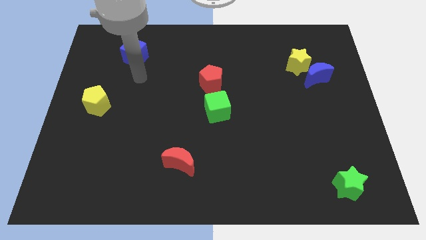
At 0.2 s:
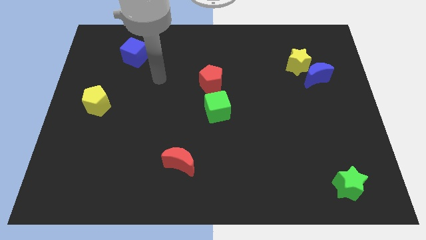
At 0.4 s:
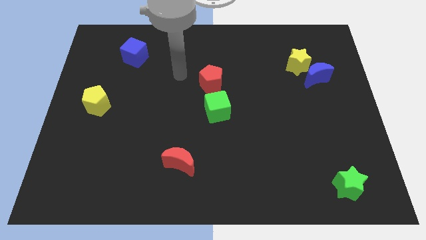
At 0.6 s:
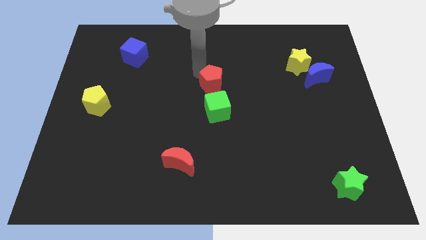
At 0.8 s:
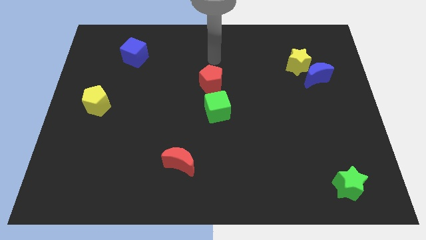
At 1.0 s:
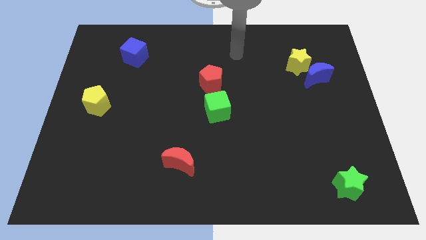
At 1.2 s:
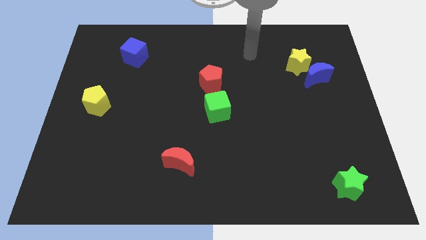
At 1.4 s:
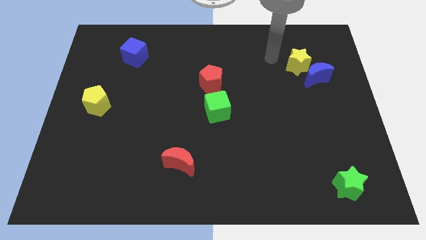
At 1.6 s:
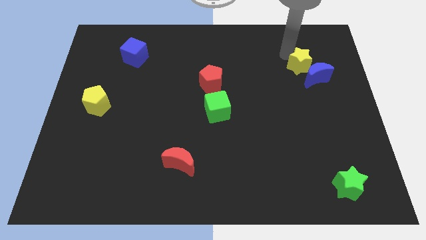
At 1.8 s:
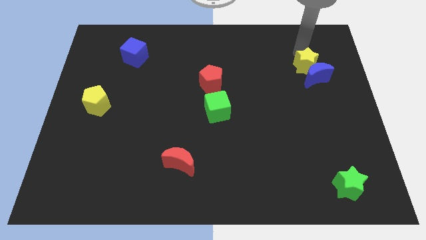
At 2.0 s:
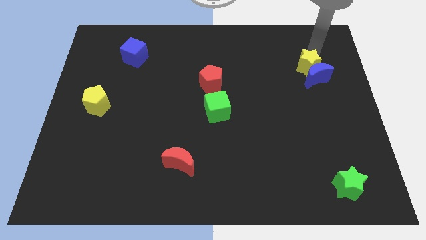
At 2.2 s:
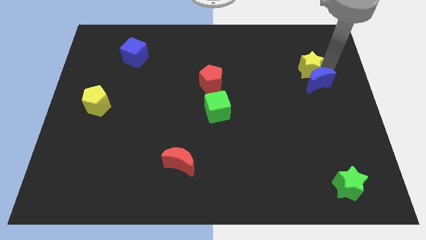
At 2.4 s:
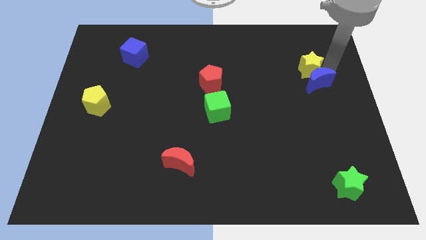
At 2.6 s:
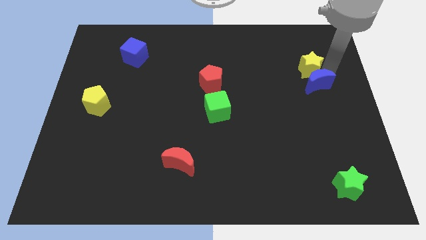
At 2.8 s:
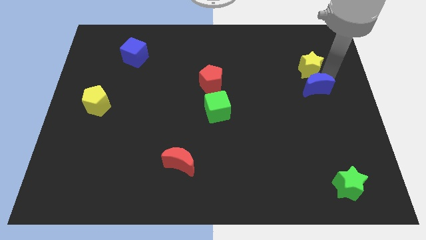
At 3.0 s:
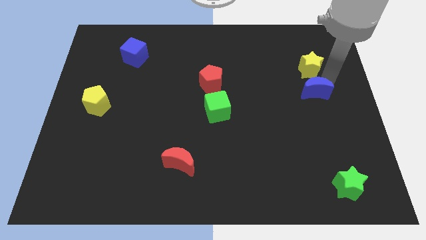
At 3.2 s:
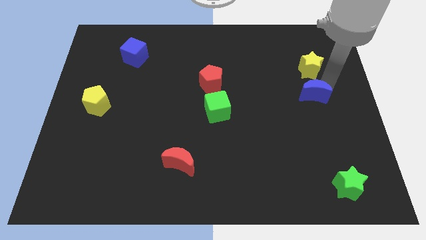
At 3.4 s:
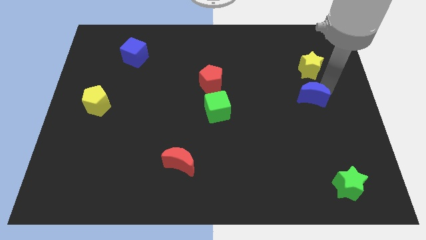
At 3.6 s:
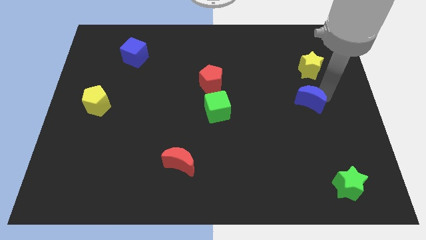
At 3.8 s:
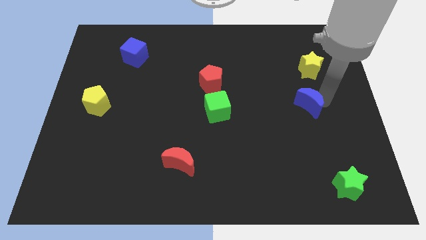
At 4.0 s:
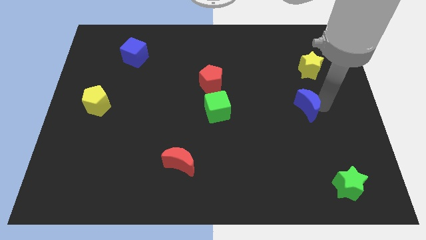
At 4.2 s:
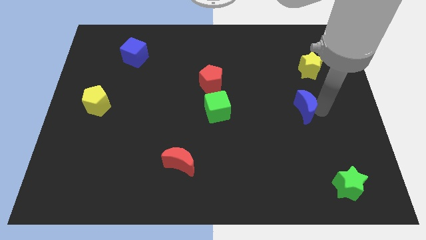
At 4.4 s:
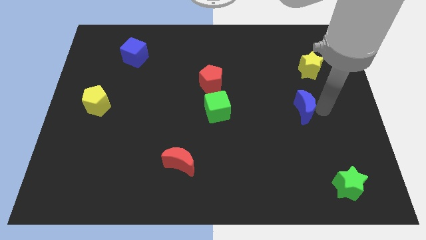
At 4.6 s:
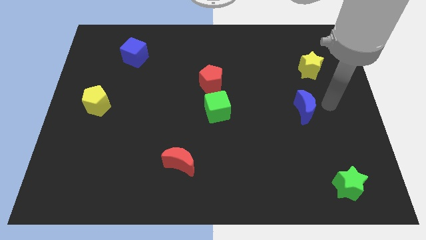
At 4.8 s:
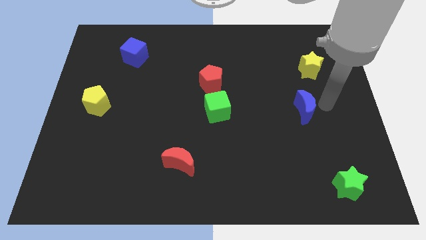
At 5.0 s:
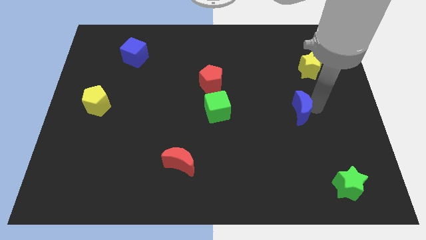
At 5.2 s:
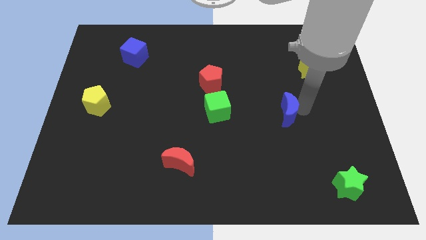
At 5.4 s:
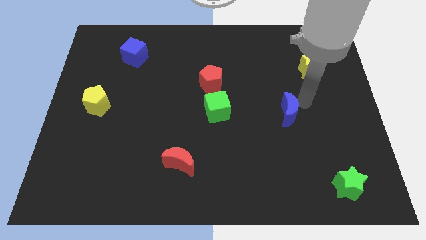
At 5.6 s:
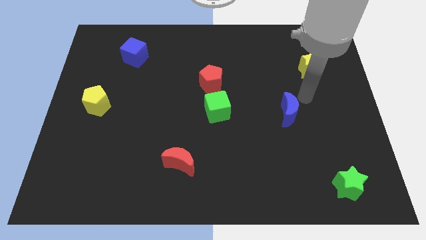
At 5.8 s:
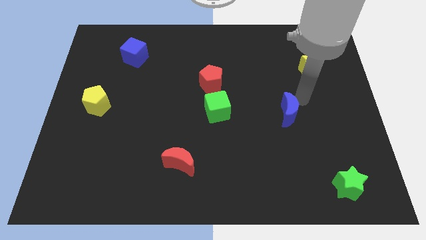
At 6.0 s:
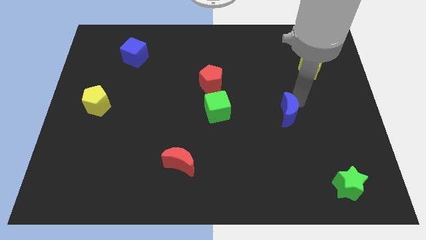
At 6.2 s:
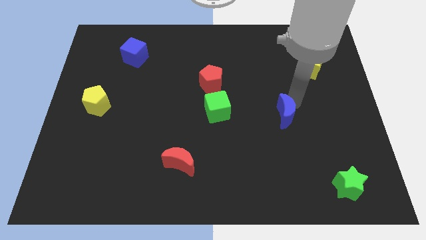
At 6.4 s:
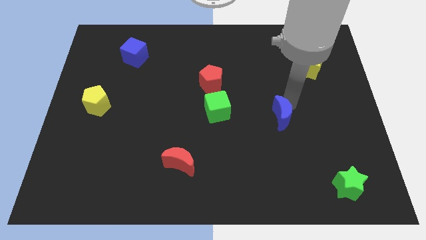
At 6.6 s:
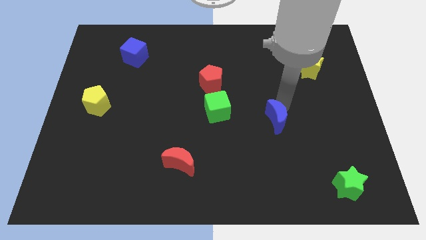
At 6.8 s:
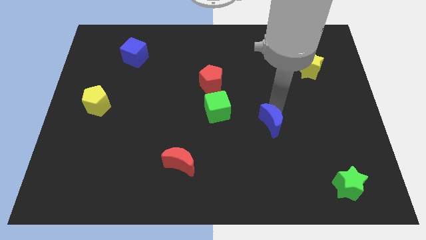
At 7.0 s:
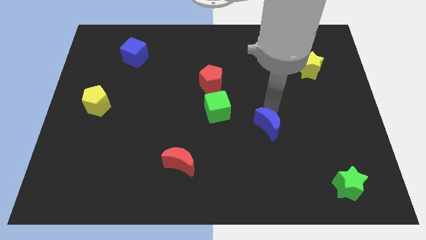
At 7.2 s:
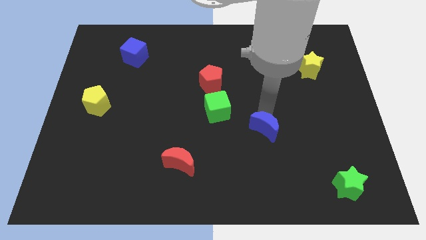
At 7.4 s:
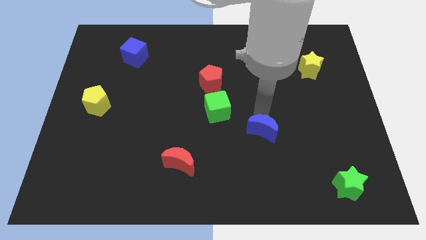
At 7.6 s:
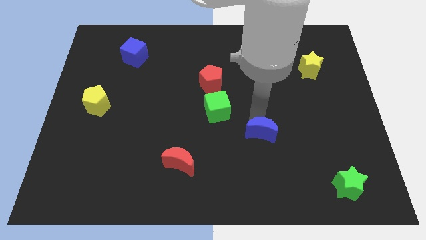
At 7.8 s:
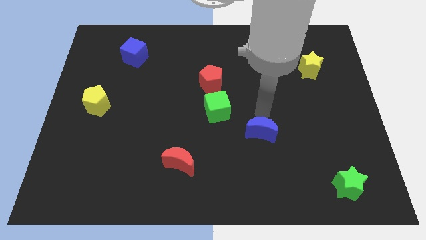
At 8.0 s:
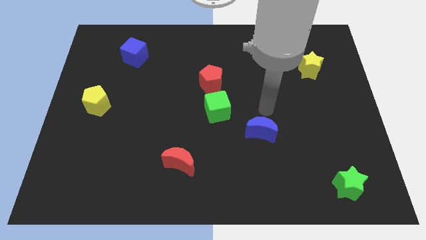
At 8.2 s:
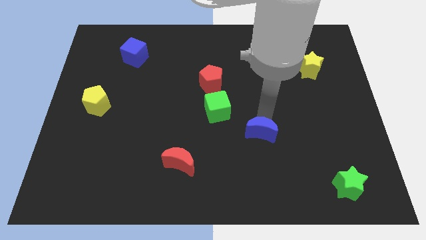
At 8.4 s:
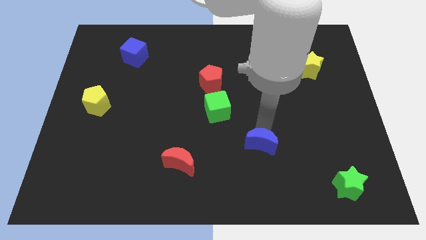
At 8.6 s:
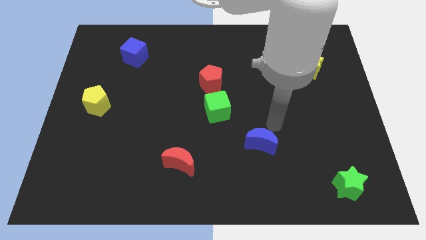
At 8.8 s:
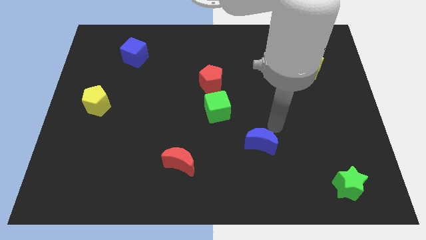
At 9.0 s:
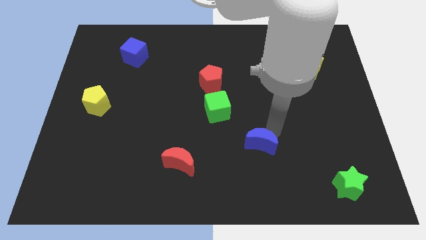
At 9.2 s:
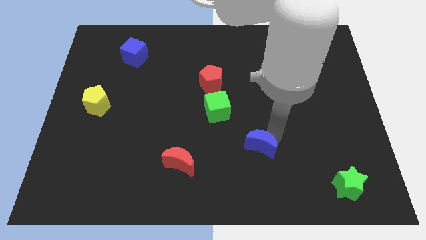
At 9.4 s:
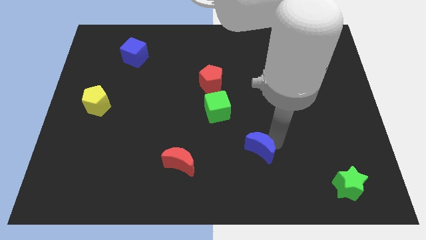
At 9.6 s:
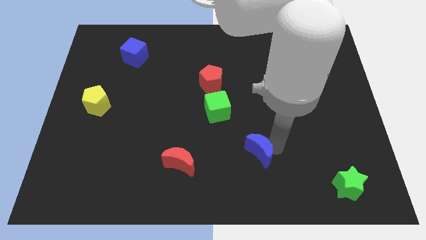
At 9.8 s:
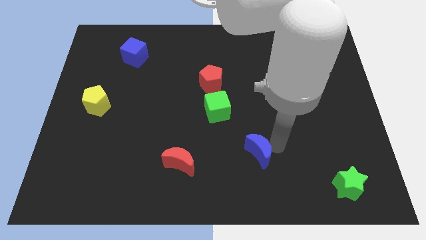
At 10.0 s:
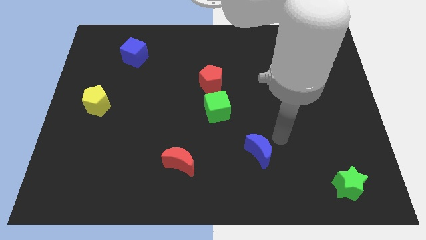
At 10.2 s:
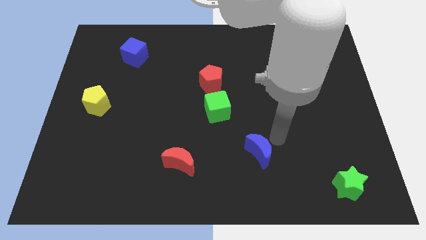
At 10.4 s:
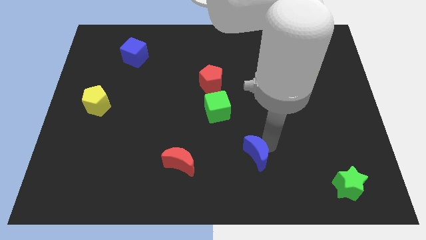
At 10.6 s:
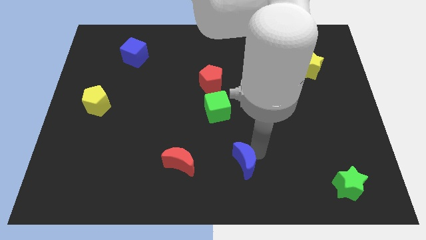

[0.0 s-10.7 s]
put the blue moon to the bottom side

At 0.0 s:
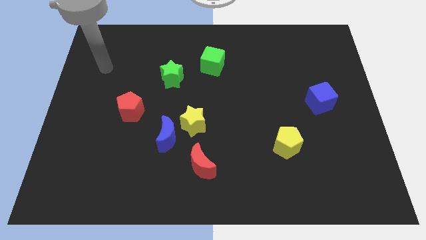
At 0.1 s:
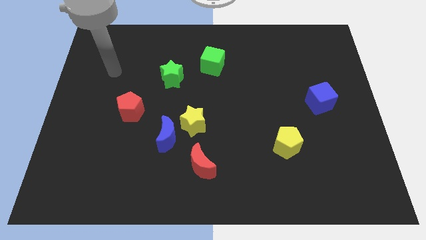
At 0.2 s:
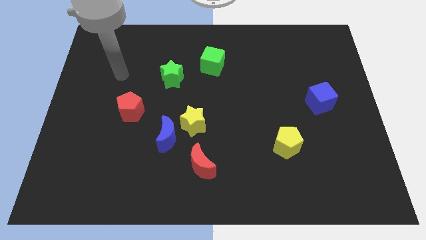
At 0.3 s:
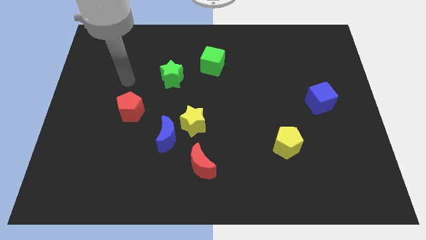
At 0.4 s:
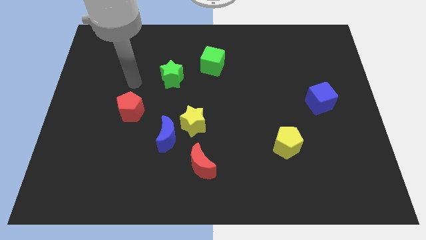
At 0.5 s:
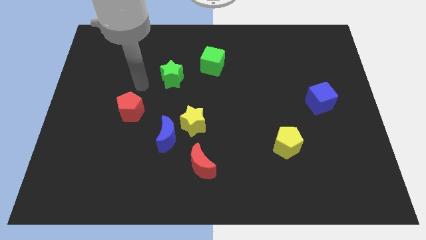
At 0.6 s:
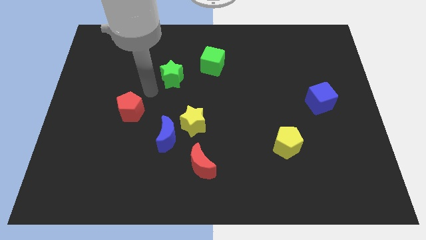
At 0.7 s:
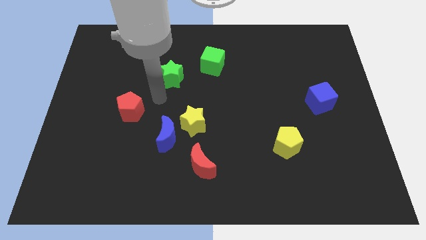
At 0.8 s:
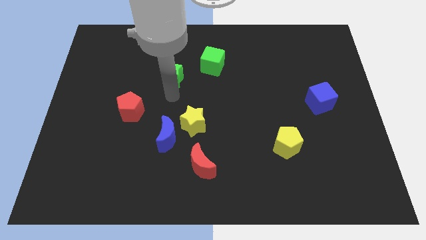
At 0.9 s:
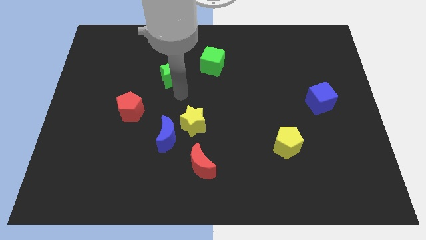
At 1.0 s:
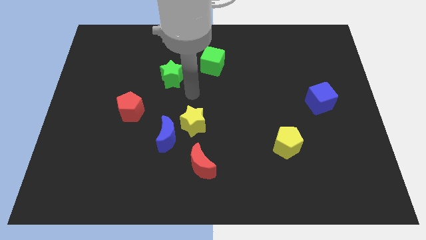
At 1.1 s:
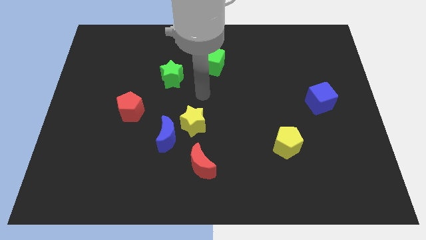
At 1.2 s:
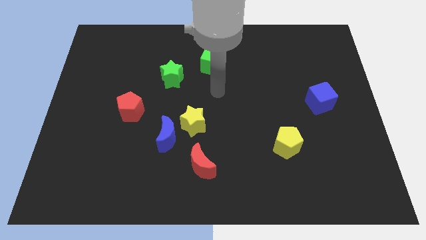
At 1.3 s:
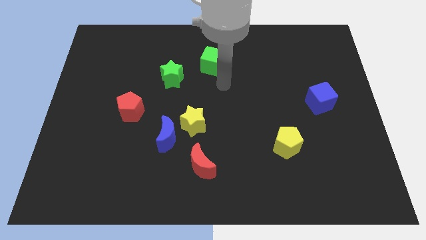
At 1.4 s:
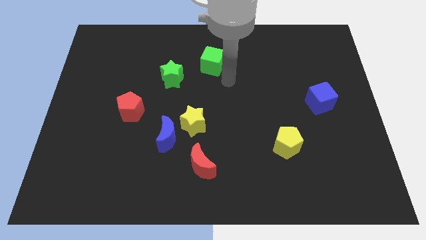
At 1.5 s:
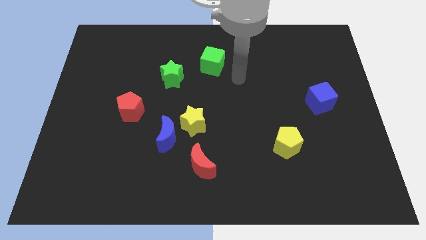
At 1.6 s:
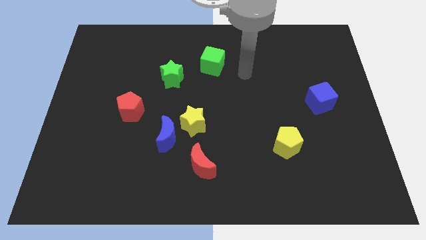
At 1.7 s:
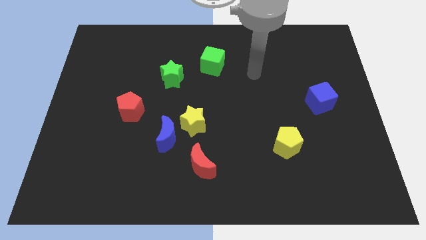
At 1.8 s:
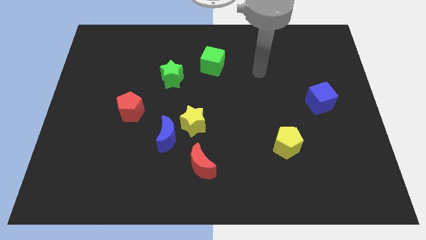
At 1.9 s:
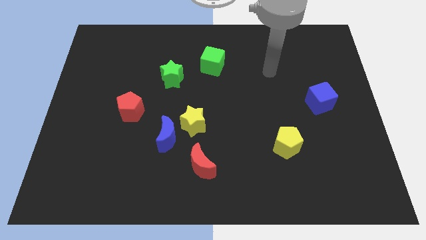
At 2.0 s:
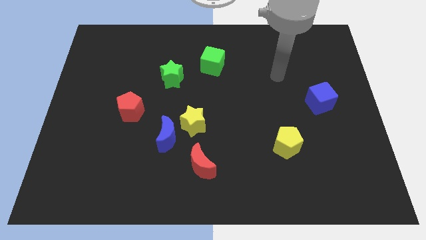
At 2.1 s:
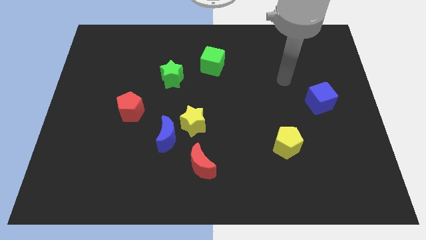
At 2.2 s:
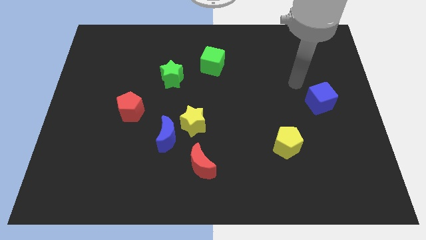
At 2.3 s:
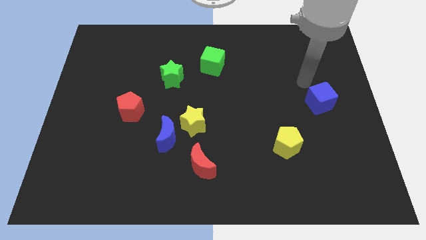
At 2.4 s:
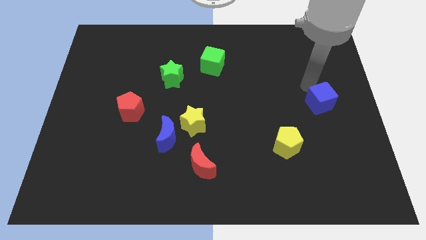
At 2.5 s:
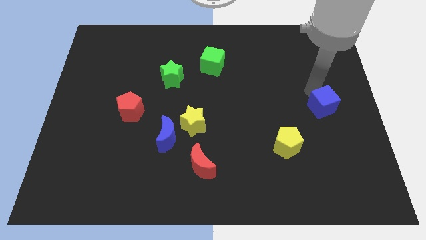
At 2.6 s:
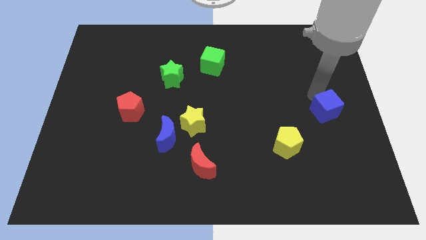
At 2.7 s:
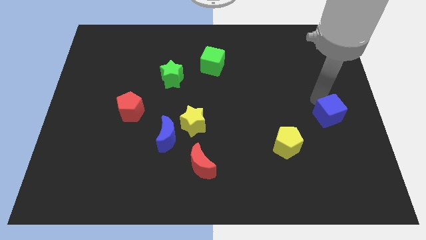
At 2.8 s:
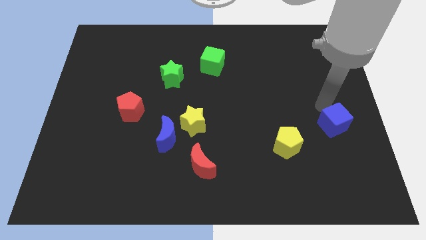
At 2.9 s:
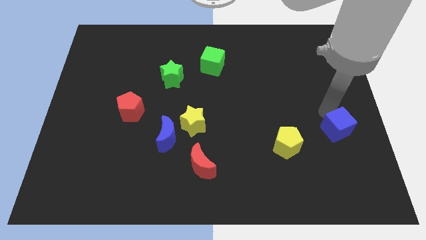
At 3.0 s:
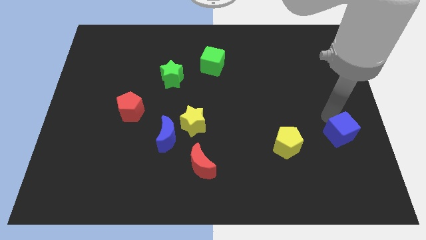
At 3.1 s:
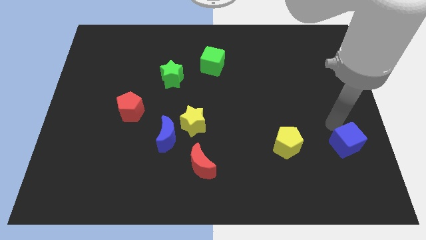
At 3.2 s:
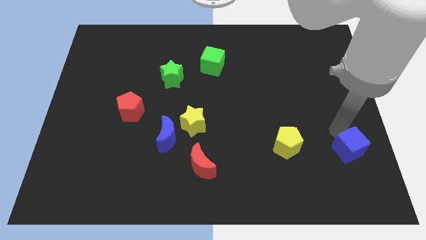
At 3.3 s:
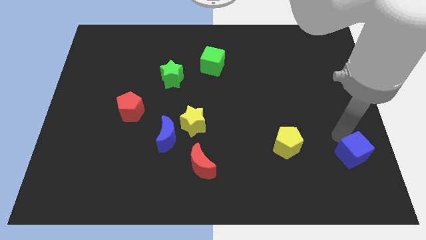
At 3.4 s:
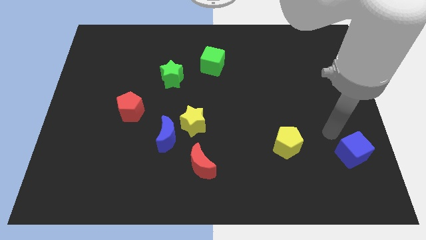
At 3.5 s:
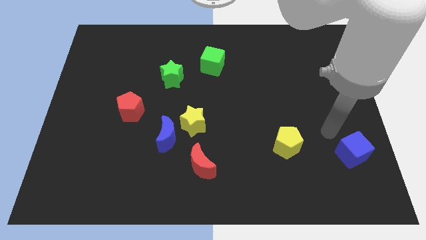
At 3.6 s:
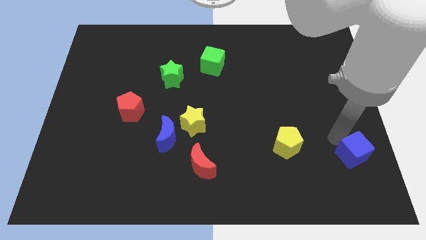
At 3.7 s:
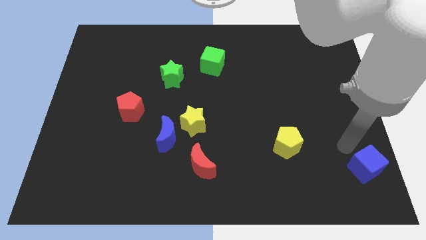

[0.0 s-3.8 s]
slide the blue cube to the bottom right
